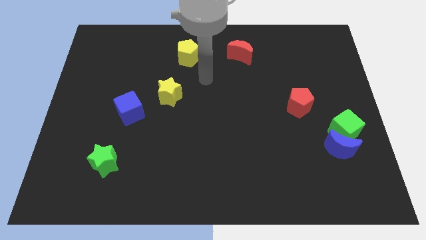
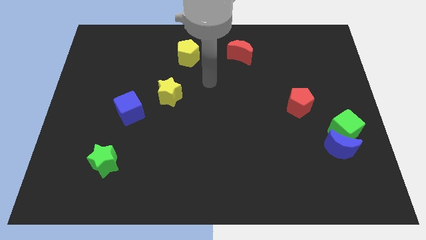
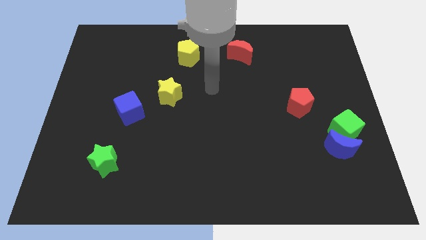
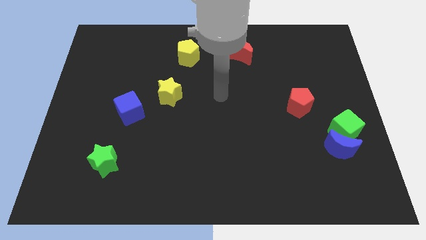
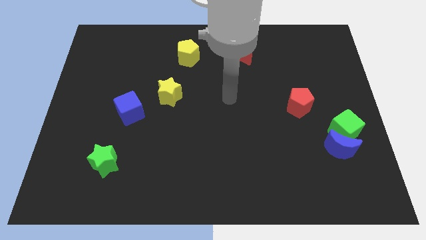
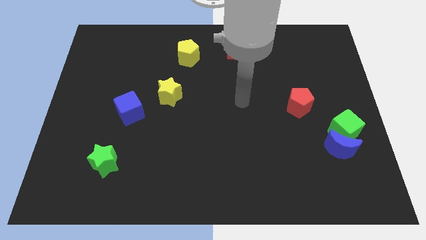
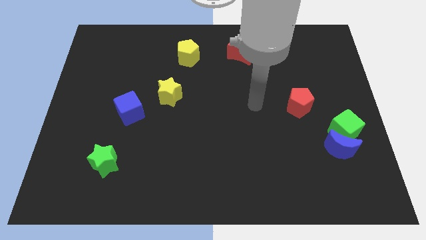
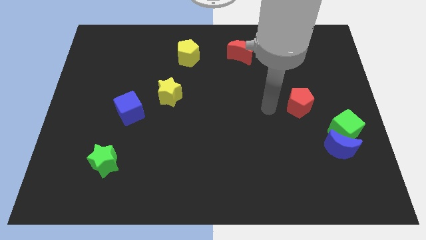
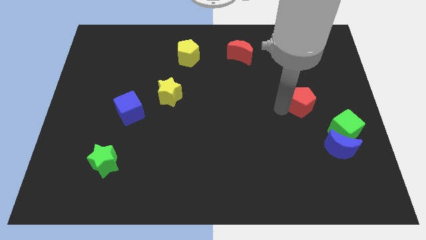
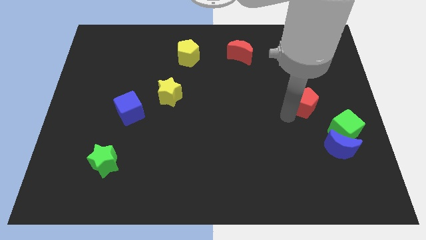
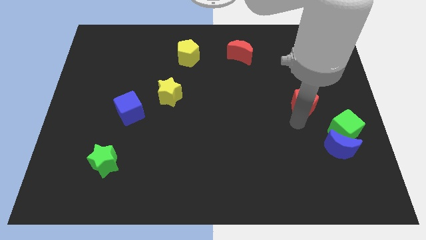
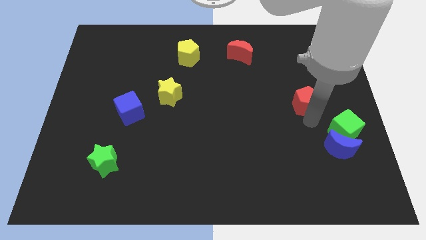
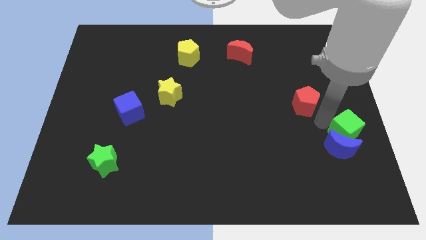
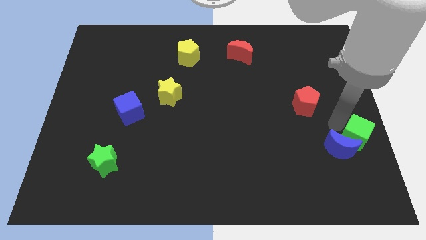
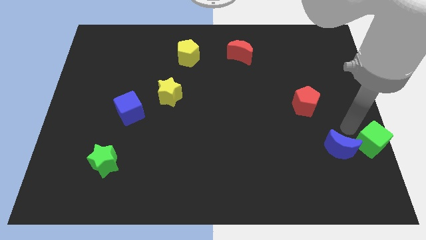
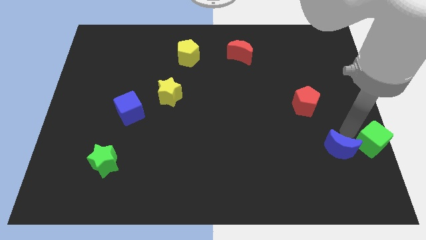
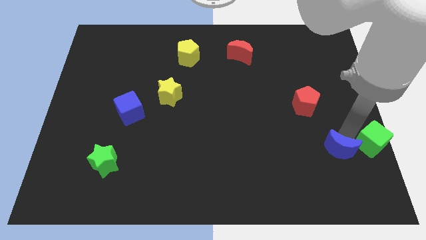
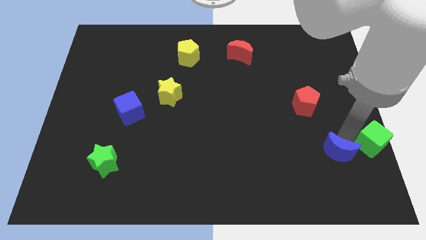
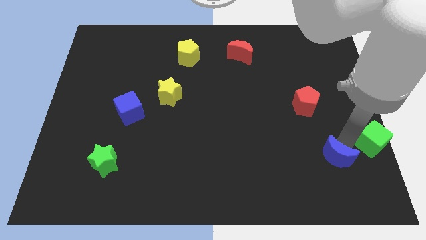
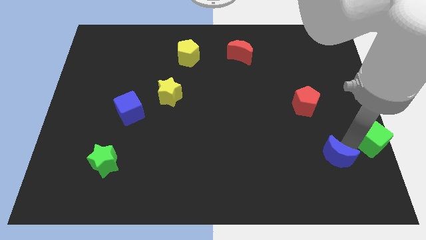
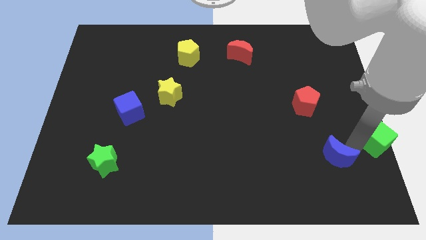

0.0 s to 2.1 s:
separate the blue moon from the green cube

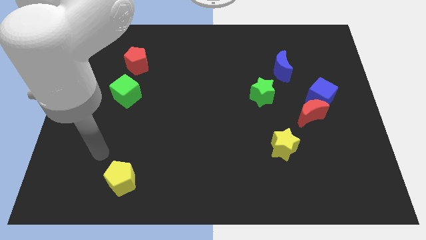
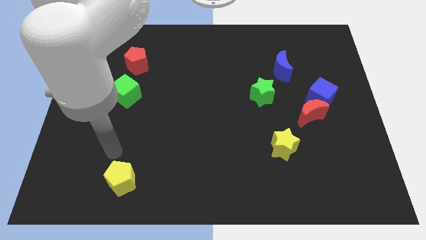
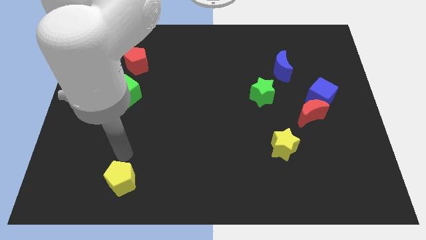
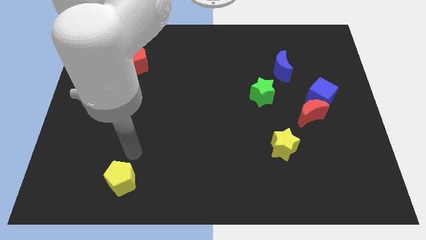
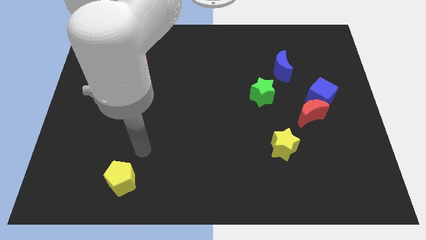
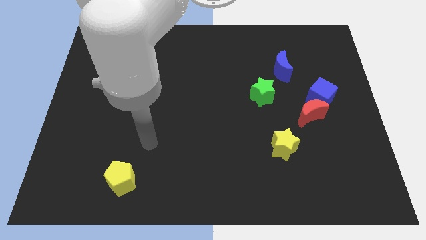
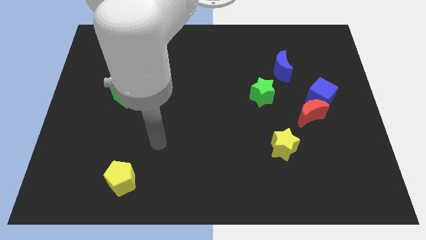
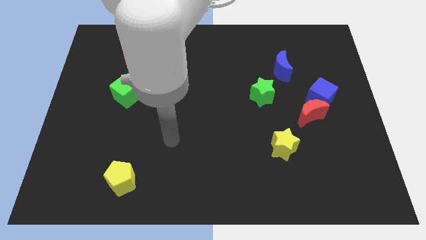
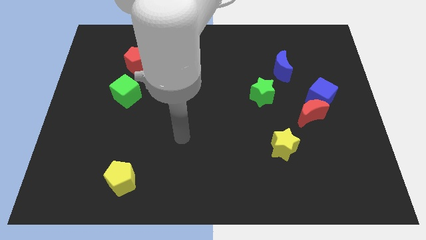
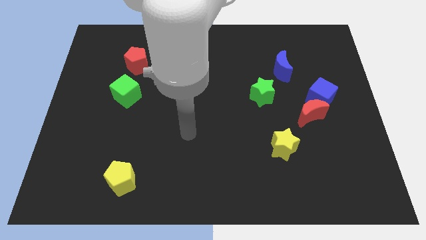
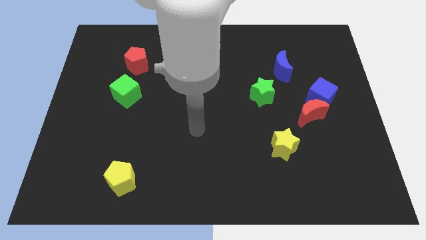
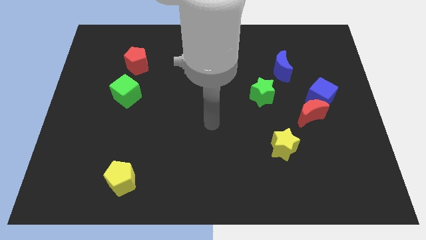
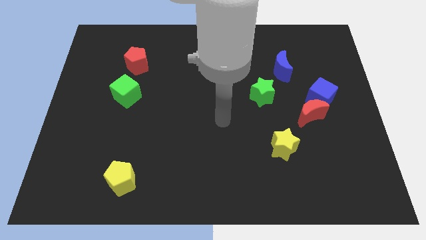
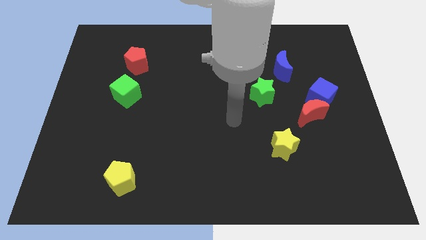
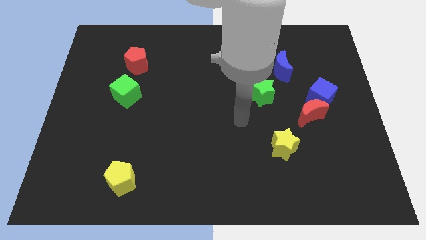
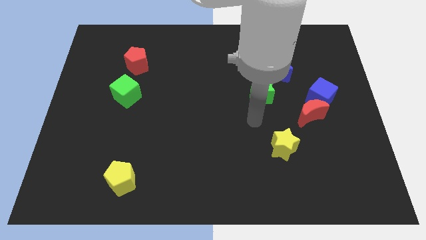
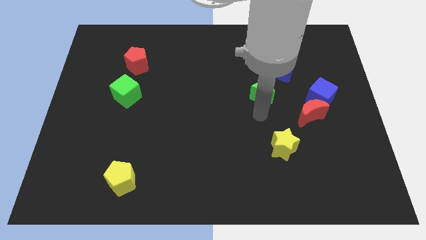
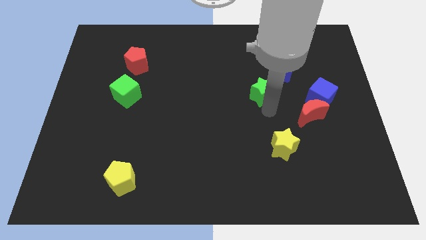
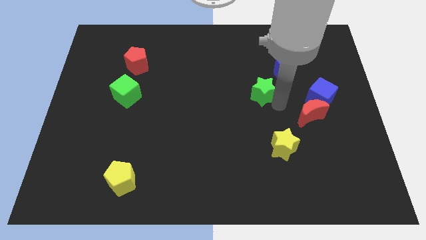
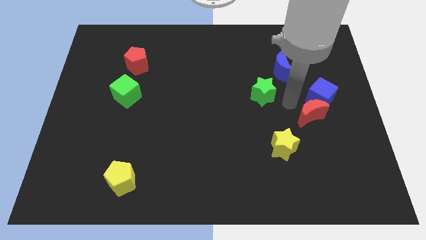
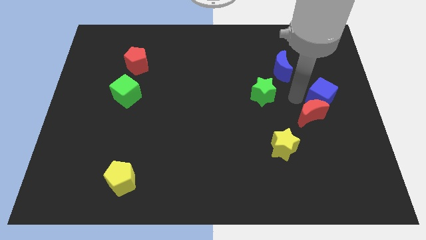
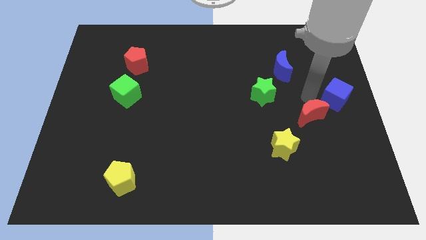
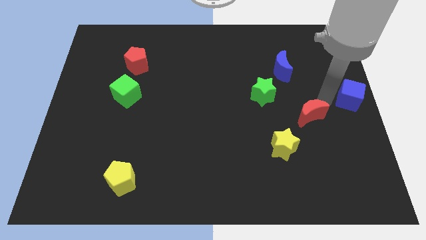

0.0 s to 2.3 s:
separate the red moon from the blue cube

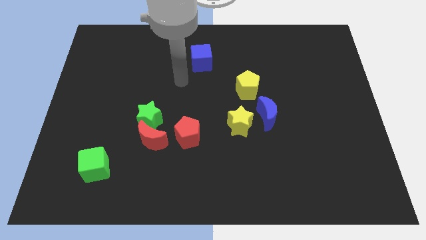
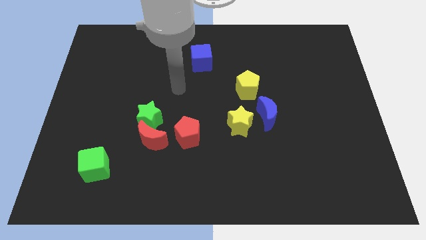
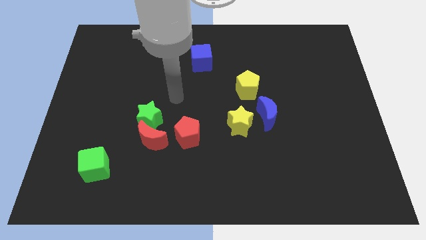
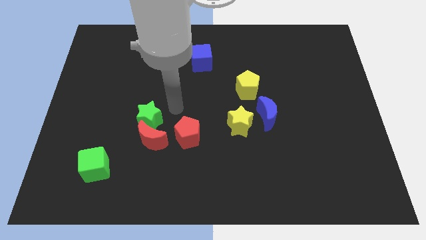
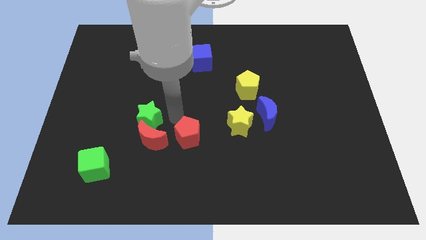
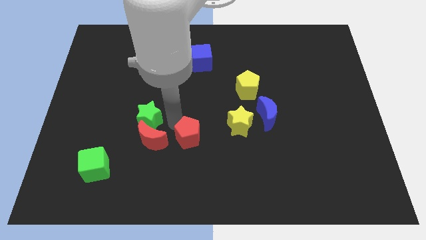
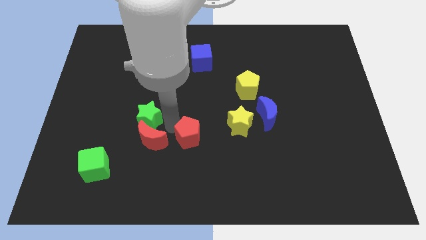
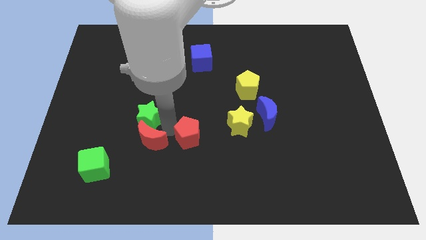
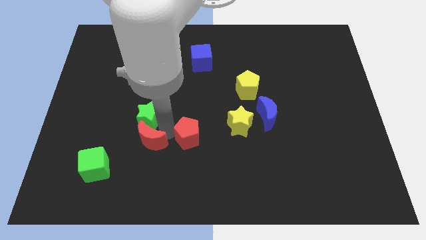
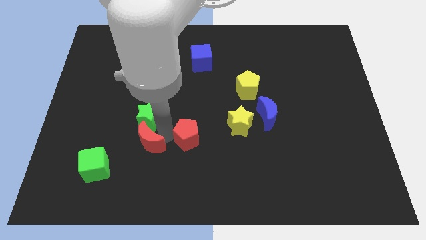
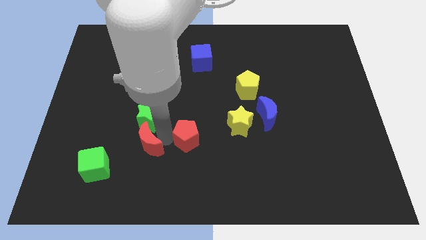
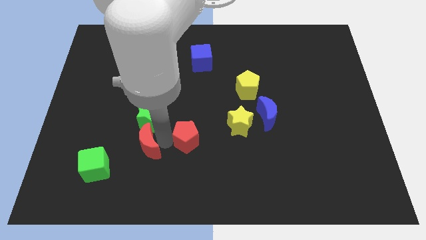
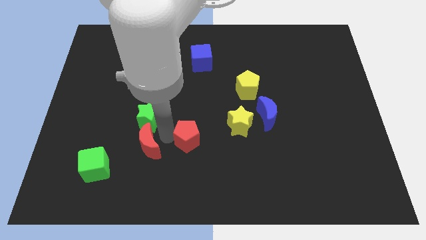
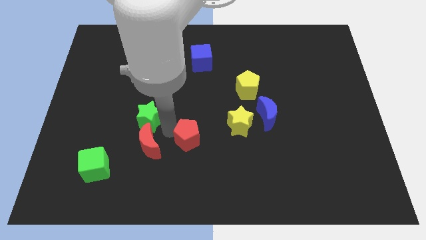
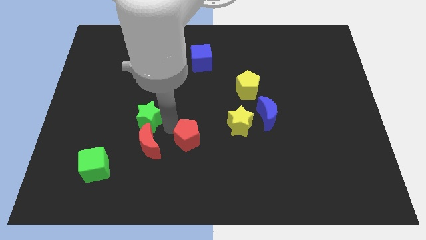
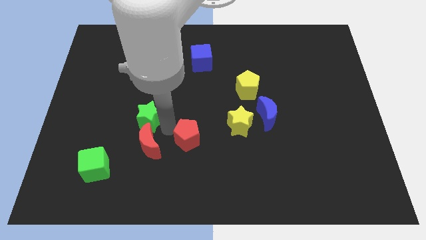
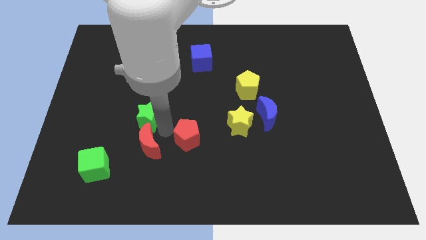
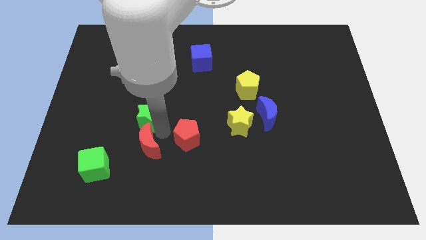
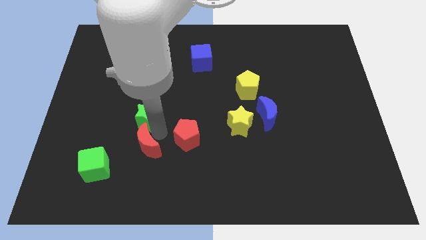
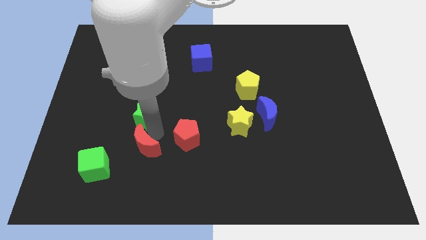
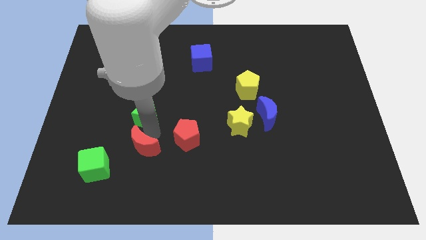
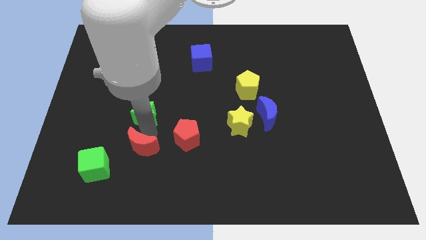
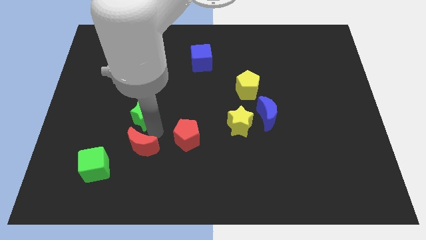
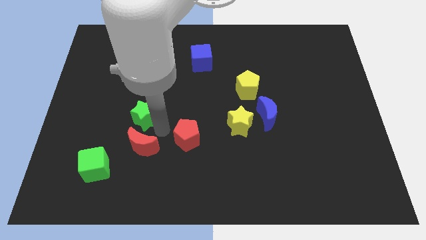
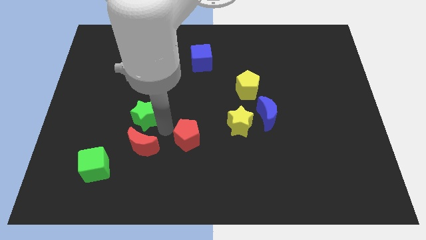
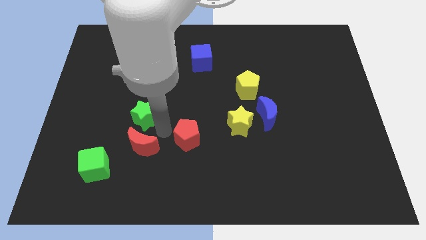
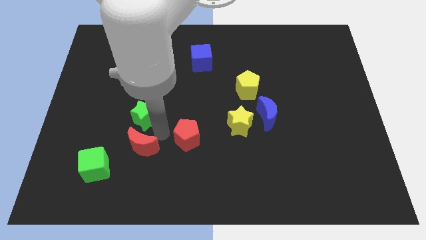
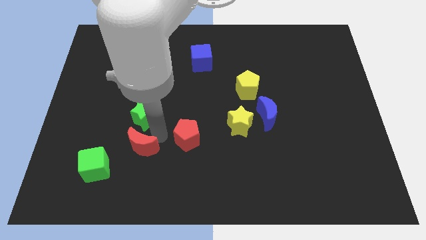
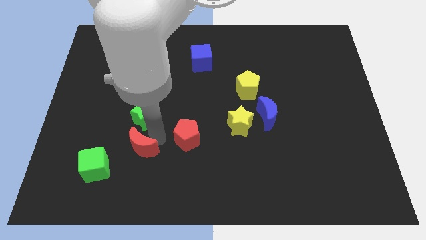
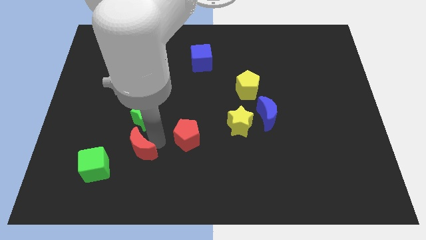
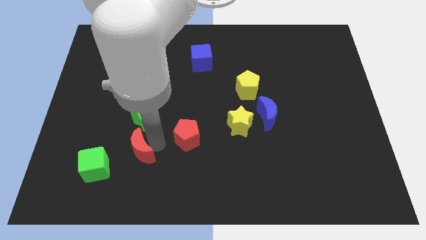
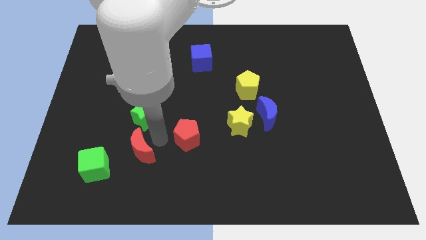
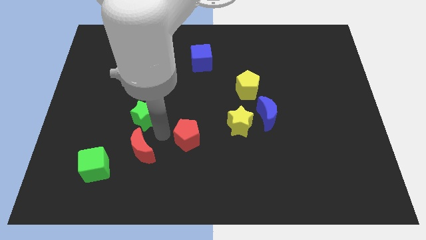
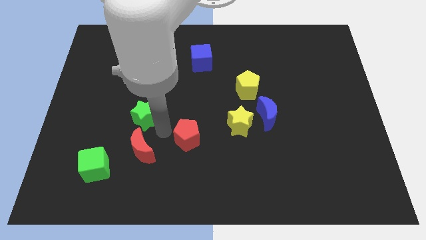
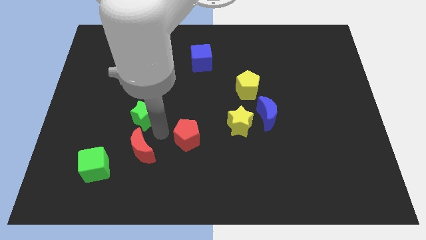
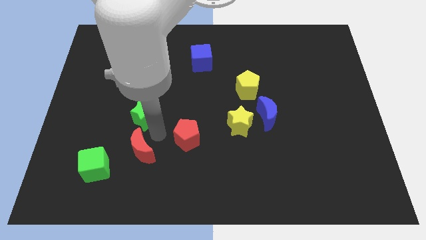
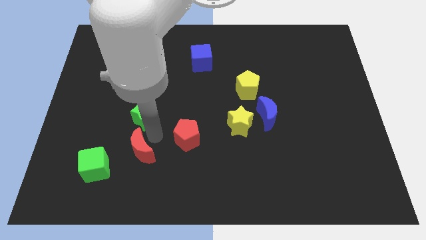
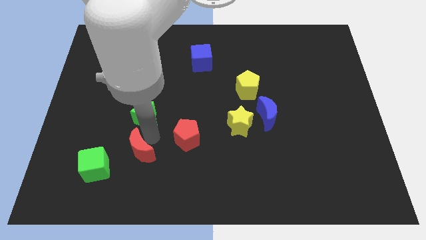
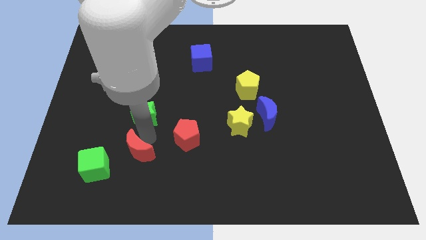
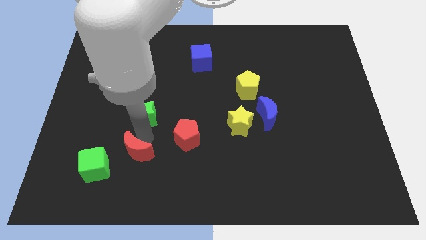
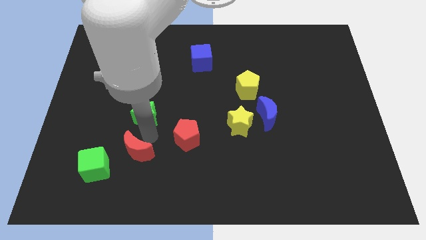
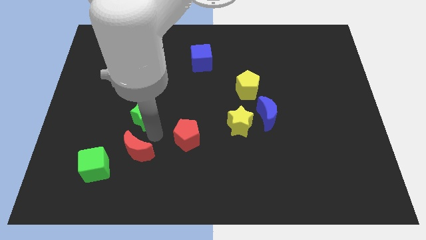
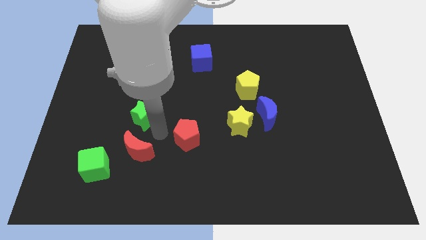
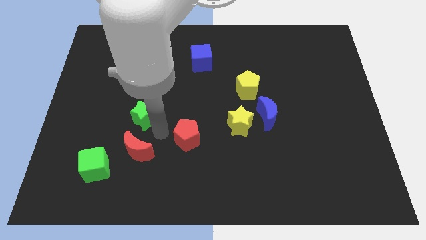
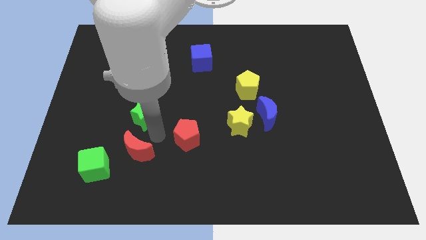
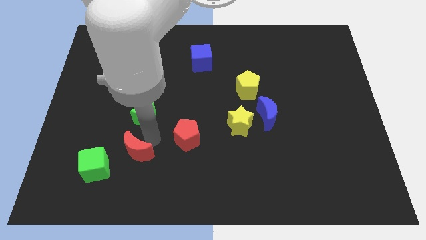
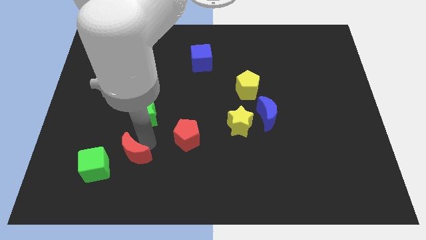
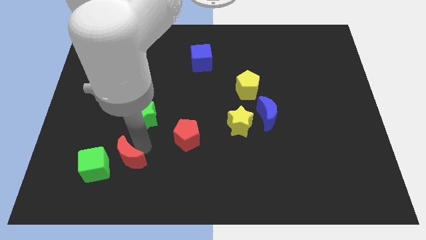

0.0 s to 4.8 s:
pull the red moon apart from the green star and red pentagon
